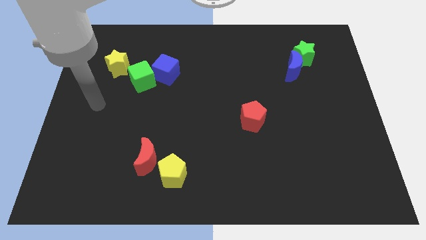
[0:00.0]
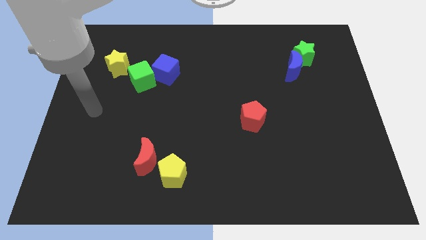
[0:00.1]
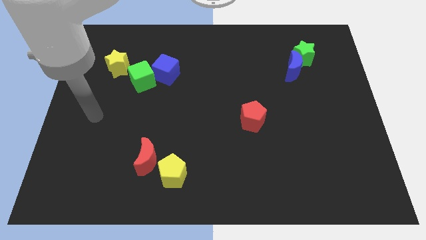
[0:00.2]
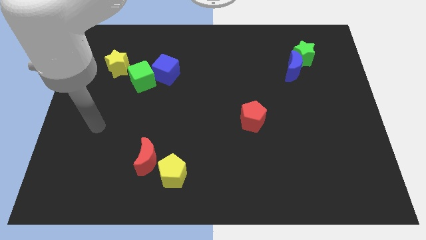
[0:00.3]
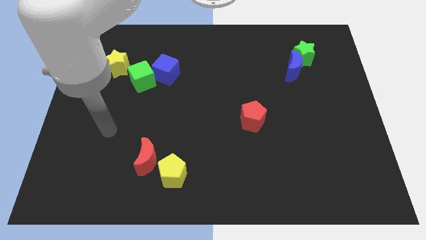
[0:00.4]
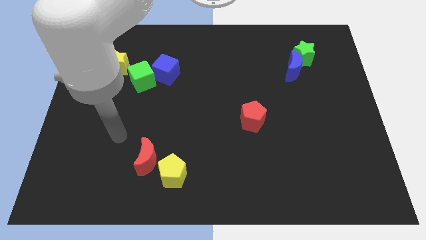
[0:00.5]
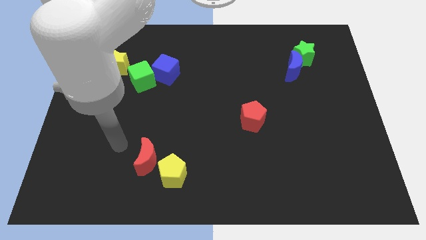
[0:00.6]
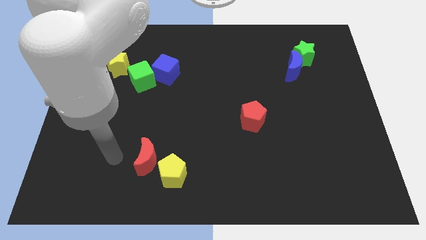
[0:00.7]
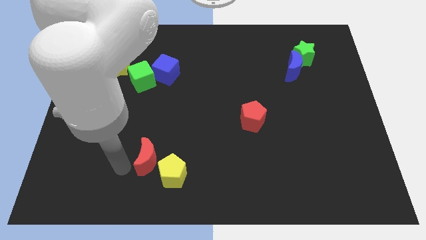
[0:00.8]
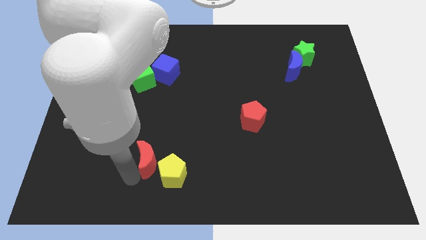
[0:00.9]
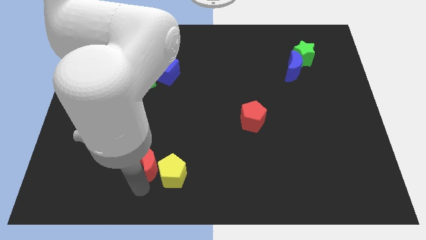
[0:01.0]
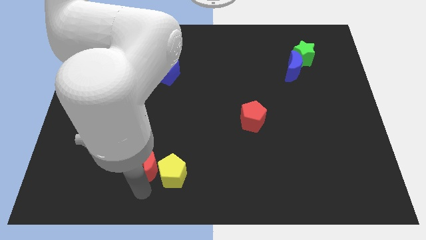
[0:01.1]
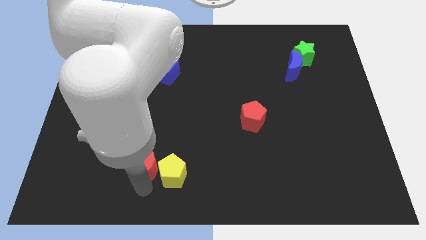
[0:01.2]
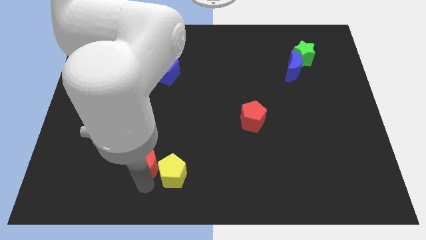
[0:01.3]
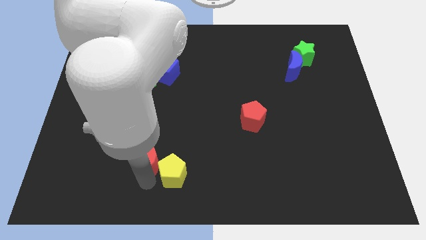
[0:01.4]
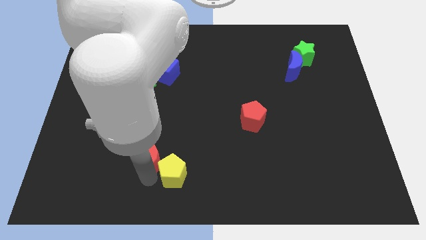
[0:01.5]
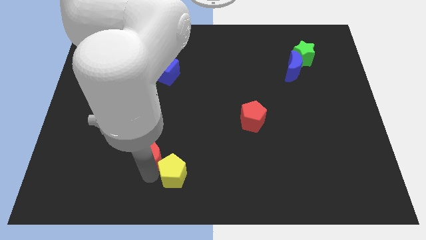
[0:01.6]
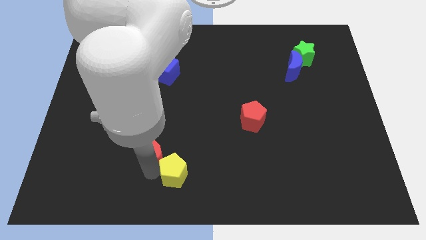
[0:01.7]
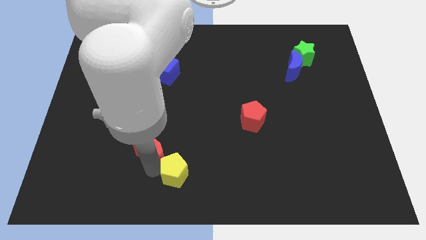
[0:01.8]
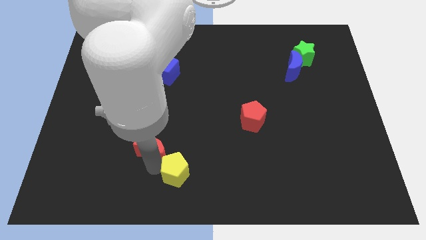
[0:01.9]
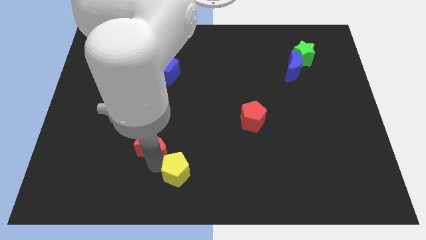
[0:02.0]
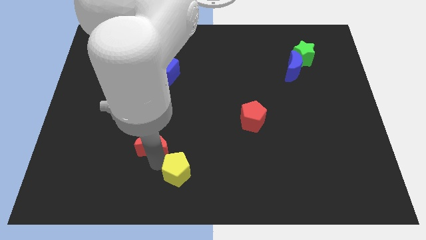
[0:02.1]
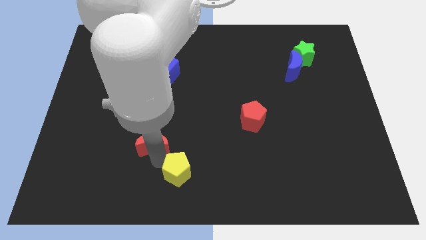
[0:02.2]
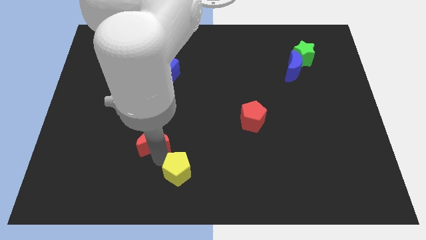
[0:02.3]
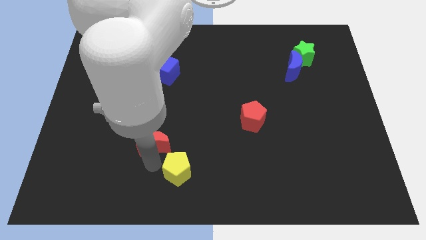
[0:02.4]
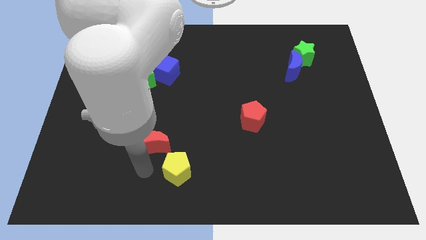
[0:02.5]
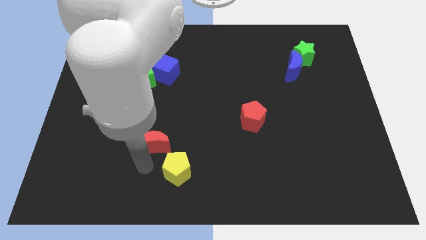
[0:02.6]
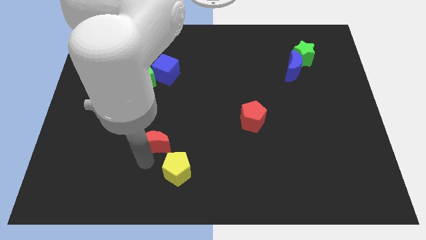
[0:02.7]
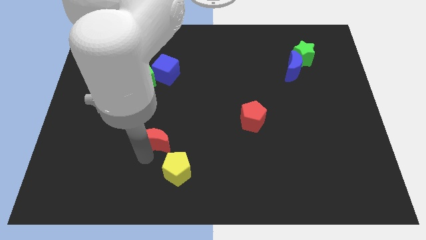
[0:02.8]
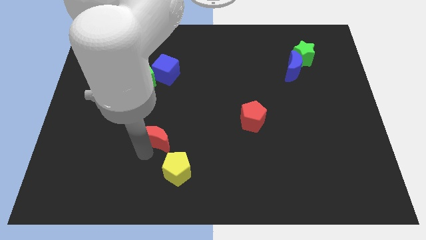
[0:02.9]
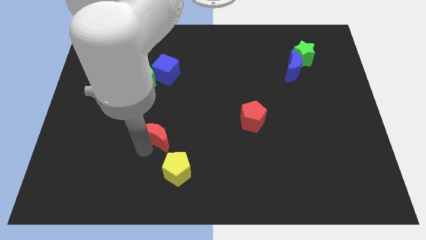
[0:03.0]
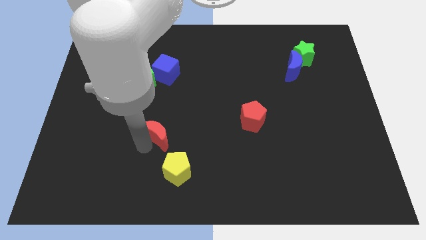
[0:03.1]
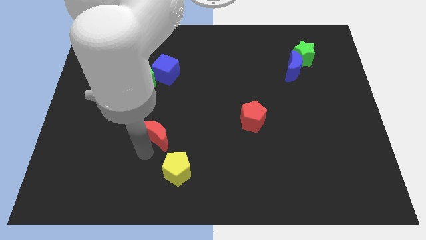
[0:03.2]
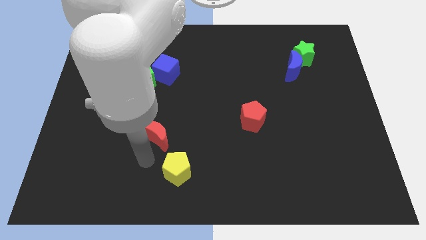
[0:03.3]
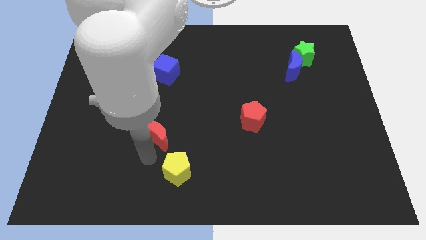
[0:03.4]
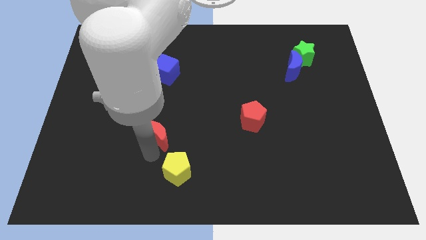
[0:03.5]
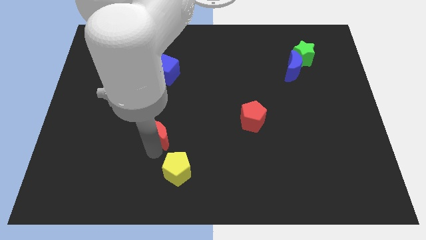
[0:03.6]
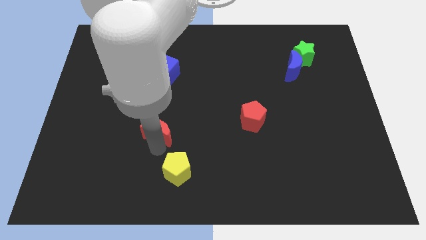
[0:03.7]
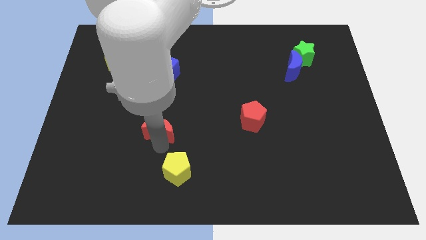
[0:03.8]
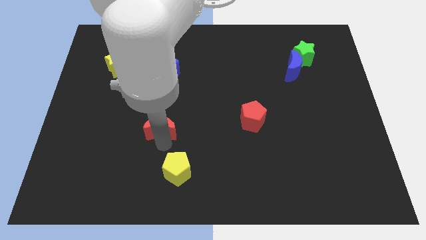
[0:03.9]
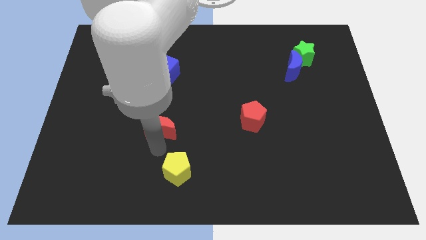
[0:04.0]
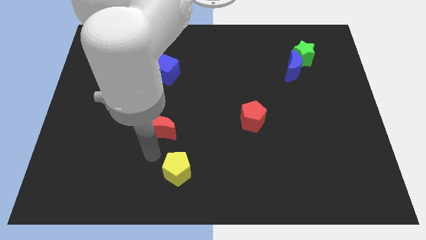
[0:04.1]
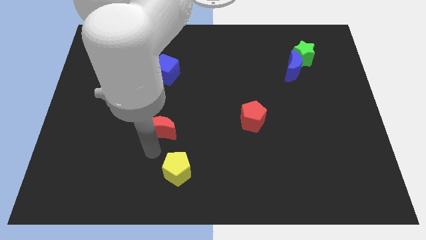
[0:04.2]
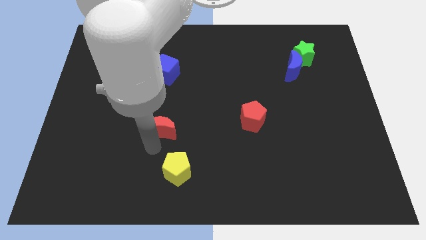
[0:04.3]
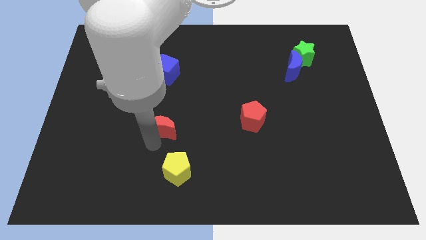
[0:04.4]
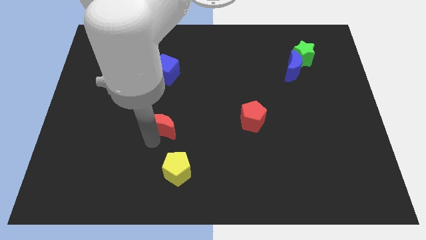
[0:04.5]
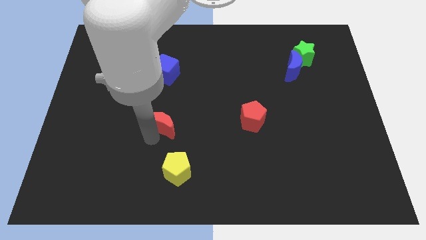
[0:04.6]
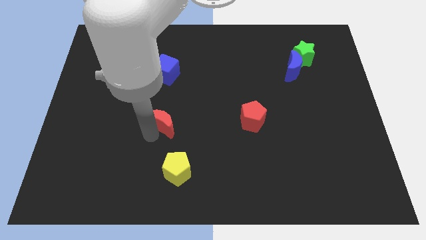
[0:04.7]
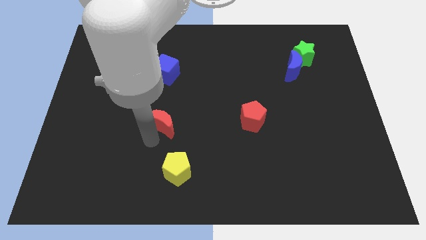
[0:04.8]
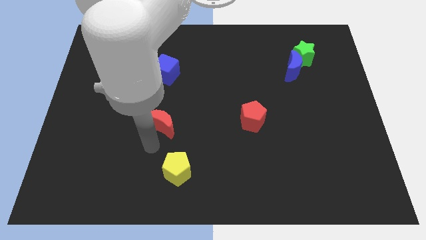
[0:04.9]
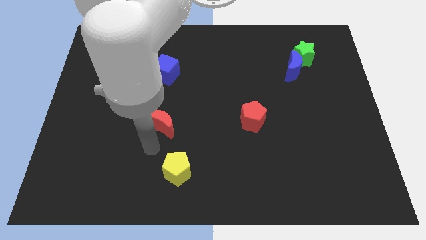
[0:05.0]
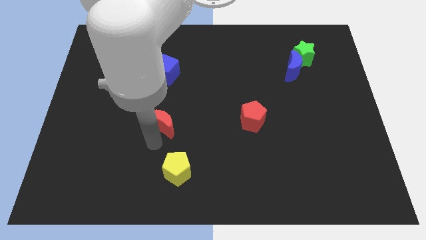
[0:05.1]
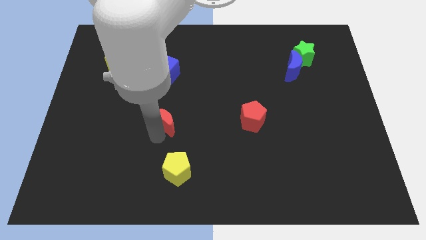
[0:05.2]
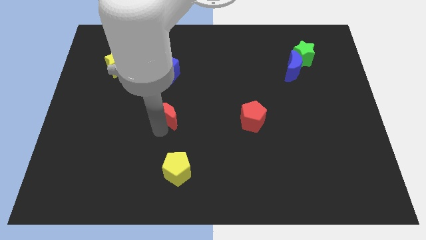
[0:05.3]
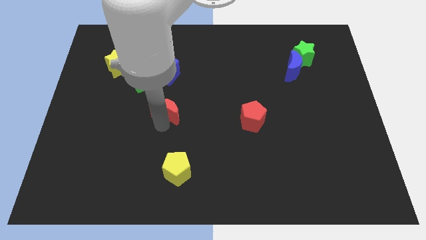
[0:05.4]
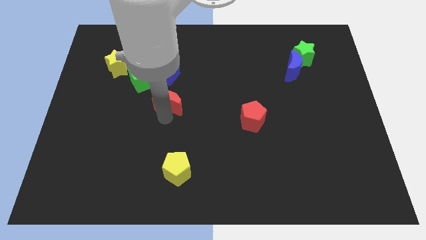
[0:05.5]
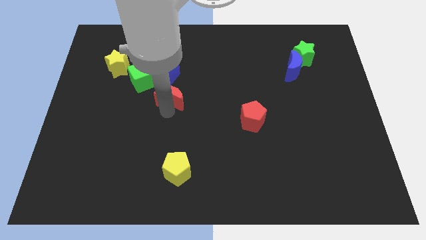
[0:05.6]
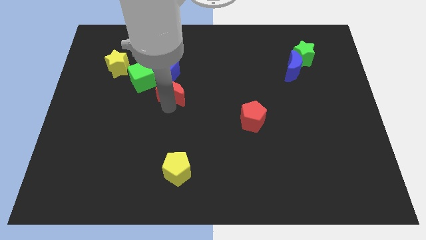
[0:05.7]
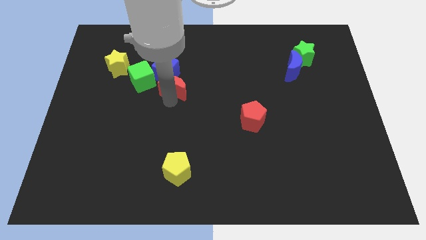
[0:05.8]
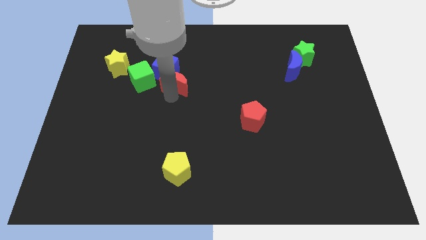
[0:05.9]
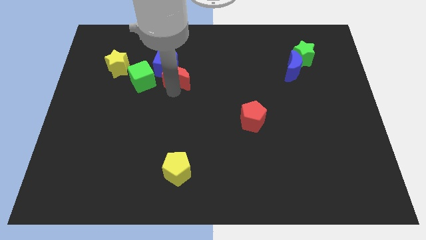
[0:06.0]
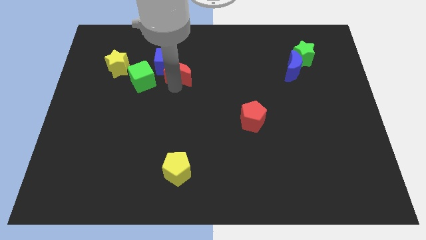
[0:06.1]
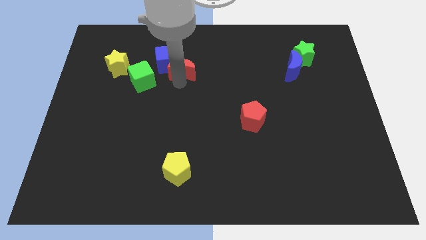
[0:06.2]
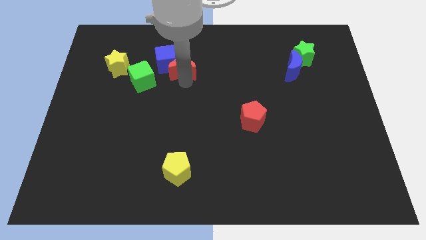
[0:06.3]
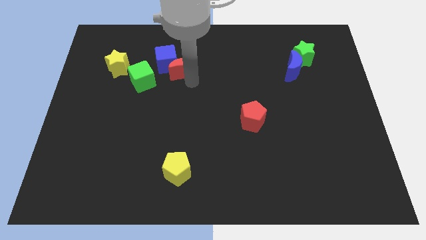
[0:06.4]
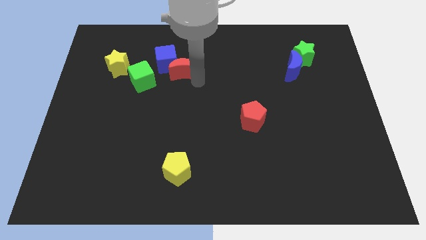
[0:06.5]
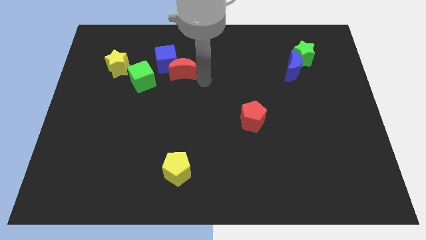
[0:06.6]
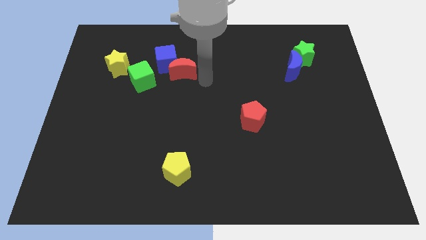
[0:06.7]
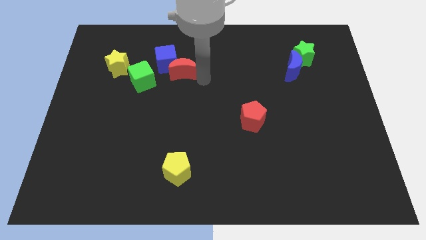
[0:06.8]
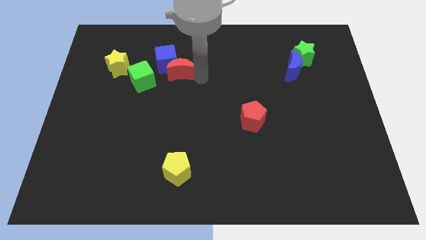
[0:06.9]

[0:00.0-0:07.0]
move the red moon to the top right side of the green cube

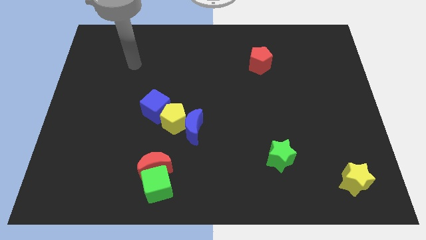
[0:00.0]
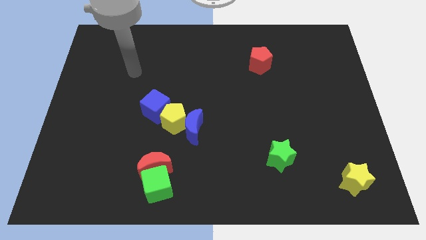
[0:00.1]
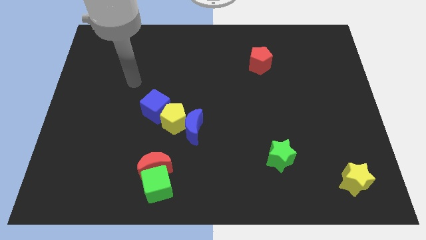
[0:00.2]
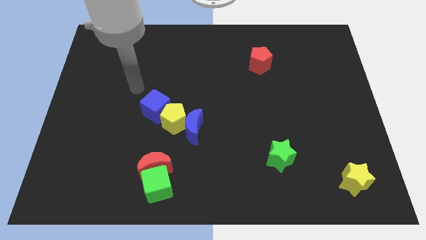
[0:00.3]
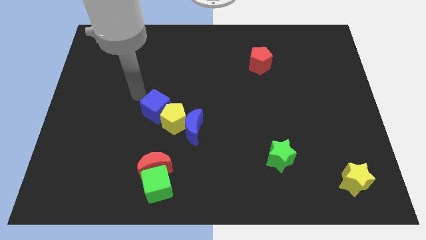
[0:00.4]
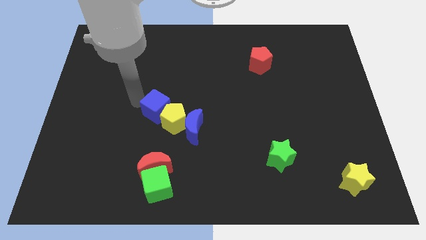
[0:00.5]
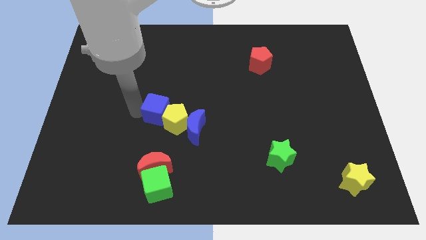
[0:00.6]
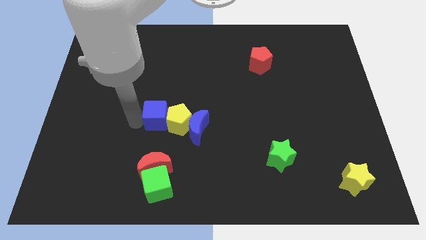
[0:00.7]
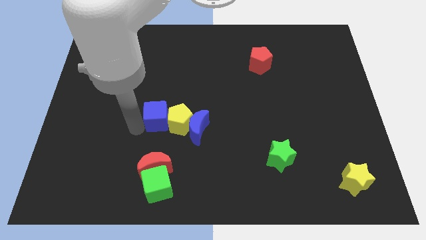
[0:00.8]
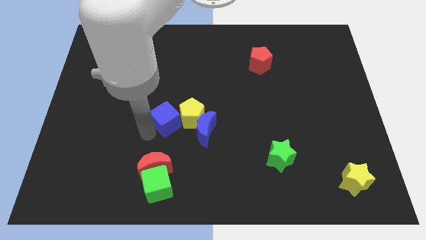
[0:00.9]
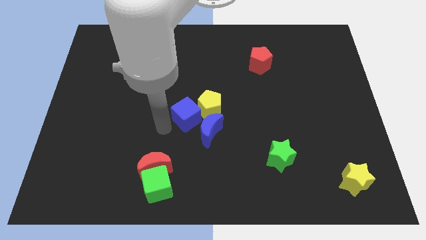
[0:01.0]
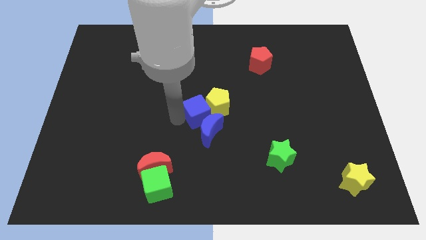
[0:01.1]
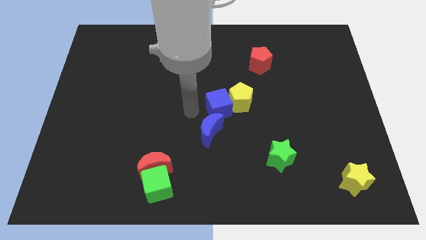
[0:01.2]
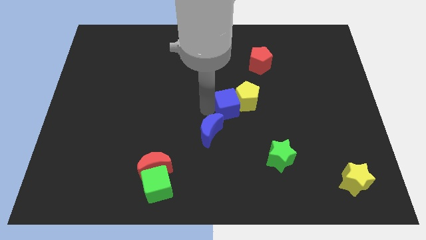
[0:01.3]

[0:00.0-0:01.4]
slide the yellow pentagon to the bottom side of the red pentagon

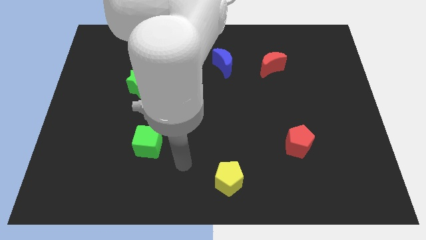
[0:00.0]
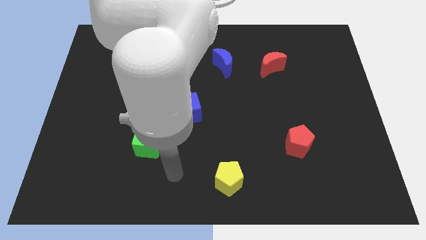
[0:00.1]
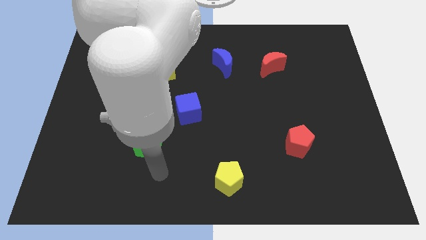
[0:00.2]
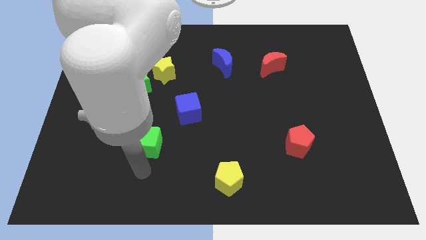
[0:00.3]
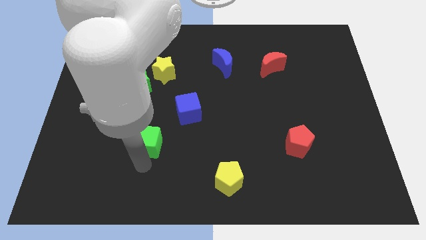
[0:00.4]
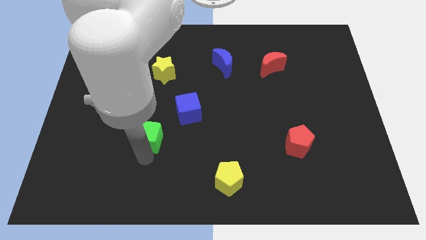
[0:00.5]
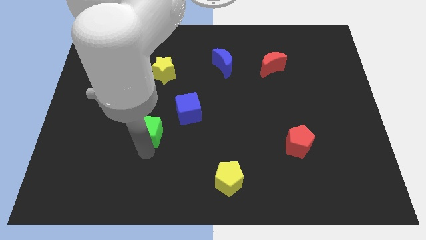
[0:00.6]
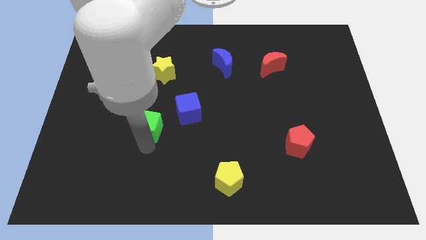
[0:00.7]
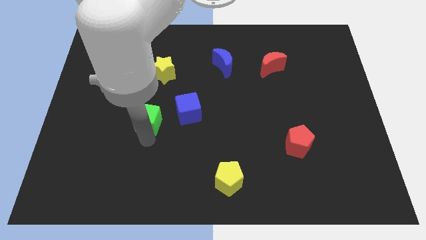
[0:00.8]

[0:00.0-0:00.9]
move the green cube to the bottom side of the yellow star
